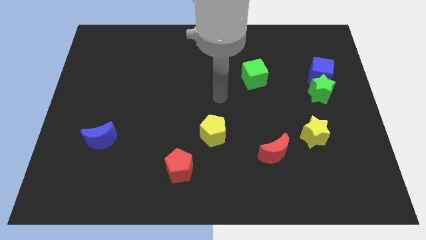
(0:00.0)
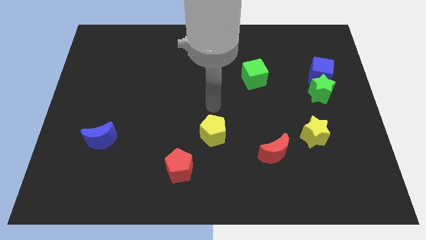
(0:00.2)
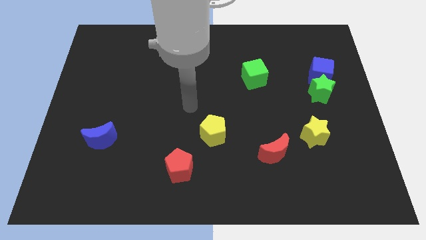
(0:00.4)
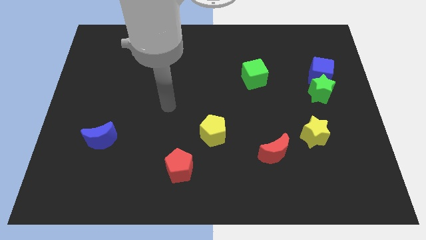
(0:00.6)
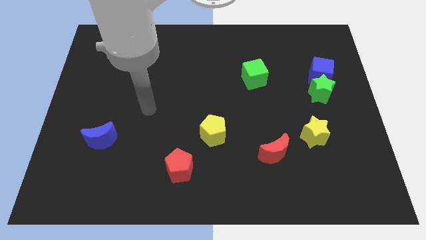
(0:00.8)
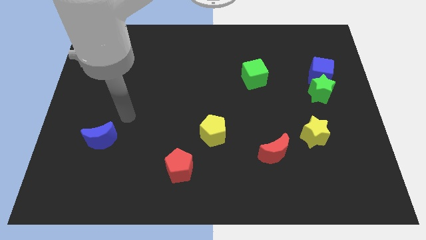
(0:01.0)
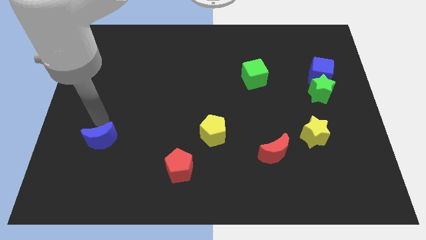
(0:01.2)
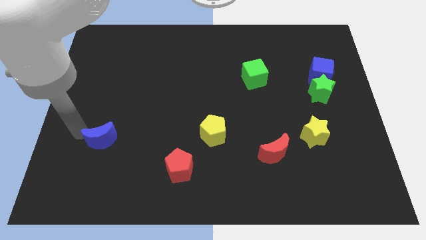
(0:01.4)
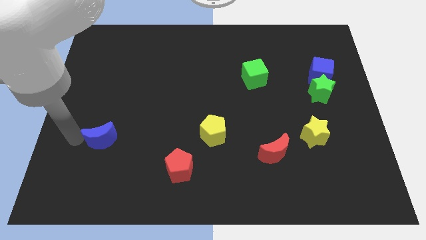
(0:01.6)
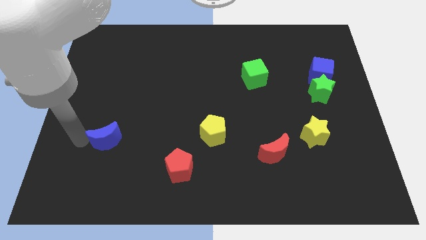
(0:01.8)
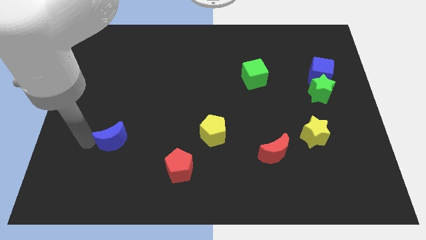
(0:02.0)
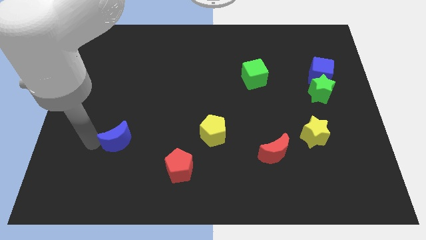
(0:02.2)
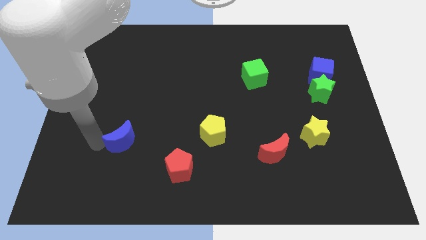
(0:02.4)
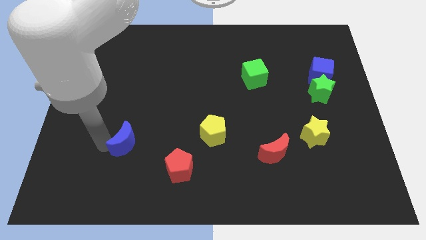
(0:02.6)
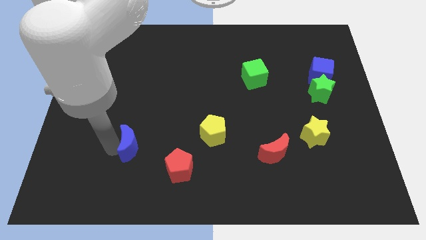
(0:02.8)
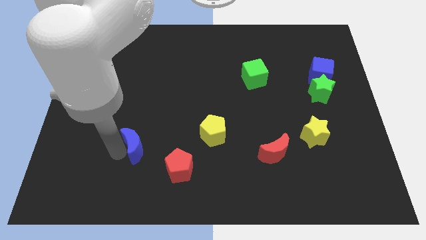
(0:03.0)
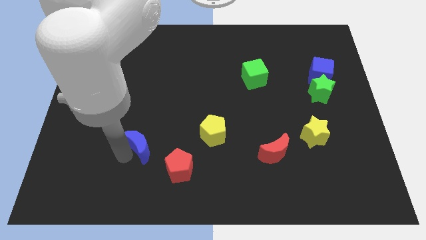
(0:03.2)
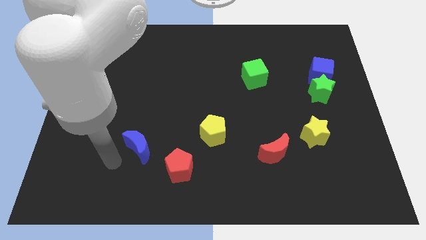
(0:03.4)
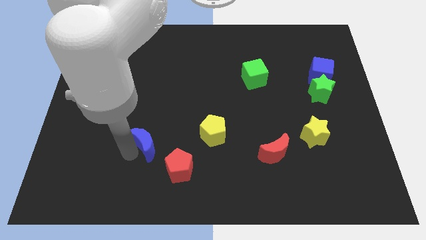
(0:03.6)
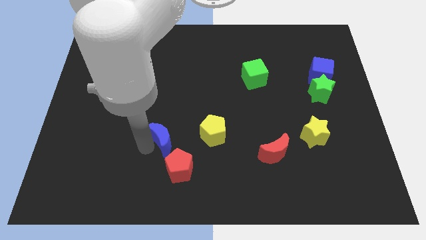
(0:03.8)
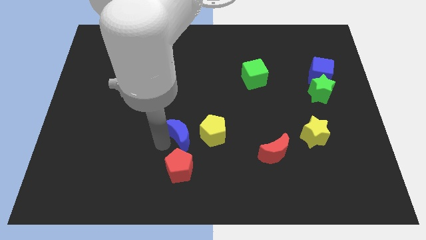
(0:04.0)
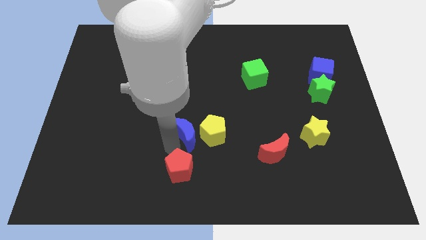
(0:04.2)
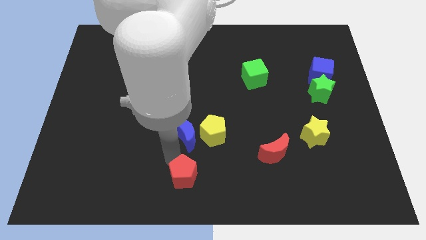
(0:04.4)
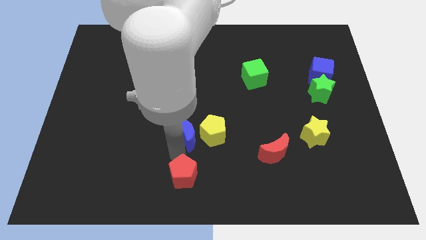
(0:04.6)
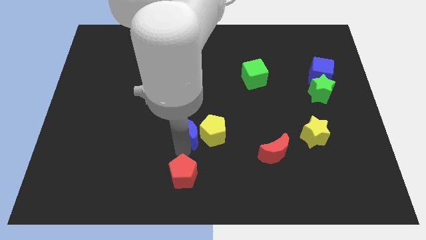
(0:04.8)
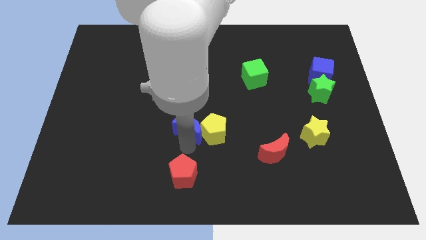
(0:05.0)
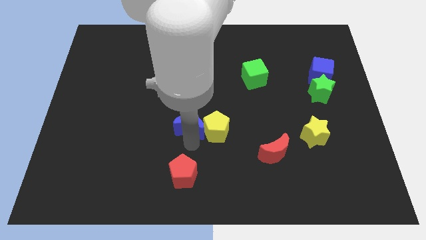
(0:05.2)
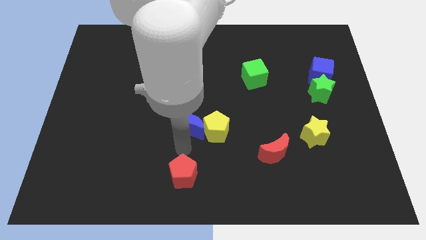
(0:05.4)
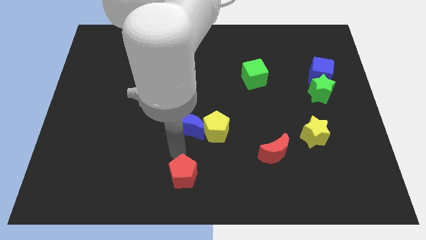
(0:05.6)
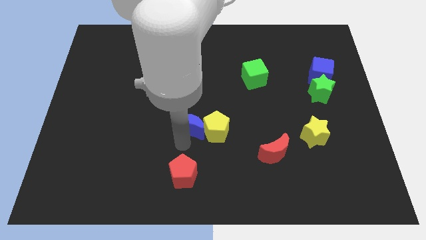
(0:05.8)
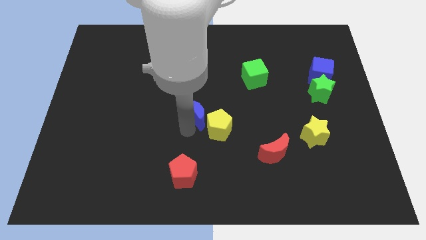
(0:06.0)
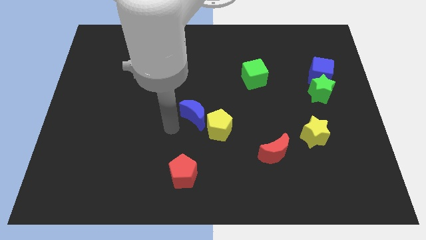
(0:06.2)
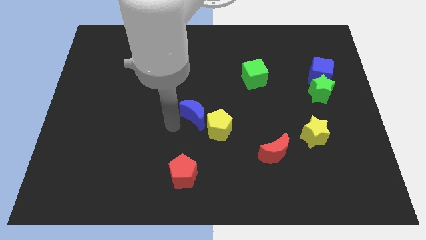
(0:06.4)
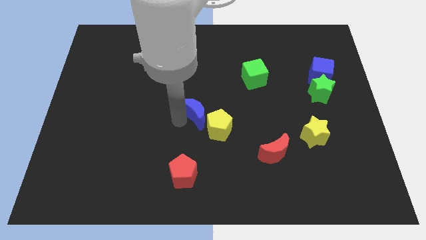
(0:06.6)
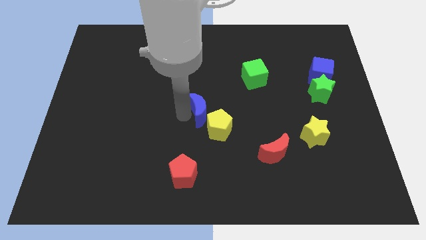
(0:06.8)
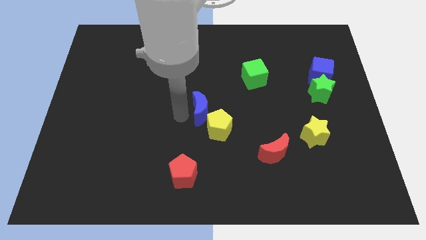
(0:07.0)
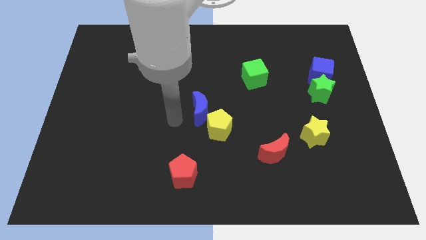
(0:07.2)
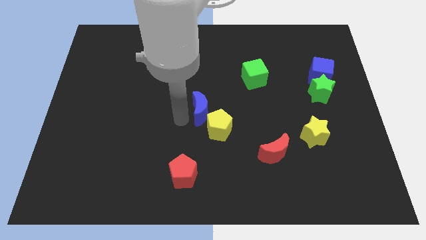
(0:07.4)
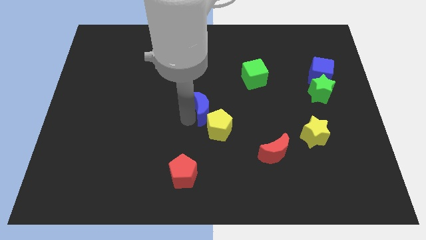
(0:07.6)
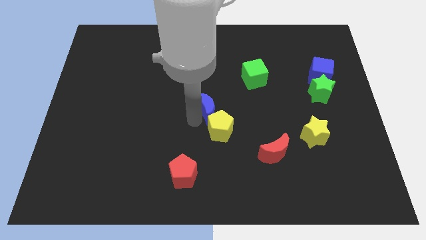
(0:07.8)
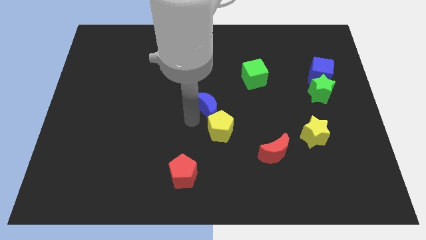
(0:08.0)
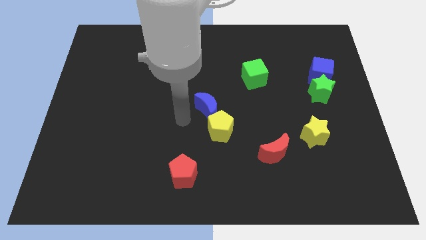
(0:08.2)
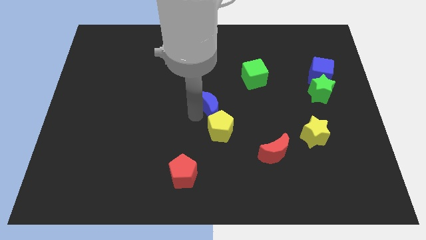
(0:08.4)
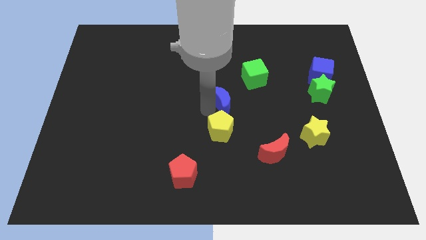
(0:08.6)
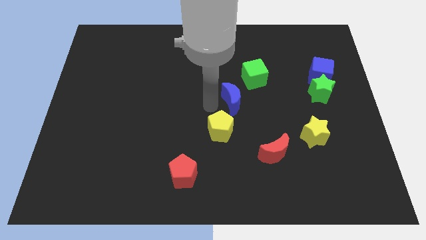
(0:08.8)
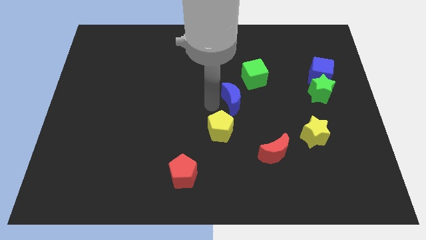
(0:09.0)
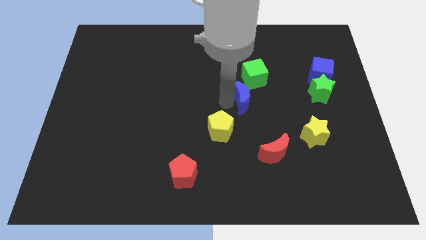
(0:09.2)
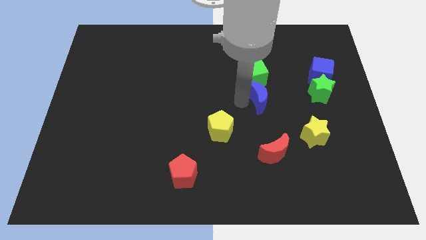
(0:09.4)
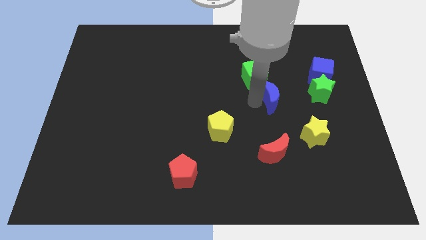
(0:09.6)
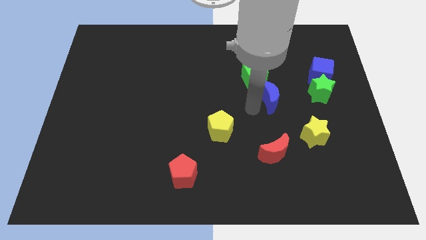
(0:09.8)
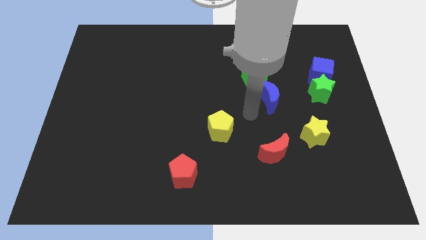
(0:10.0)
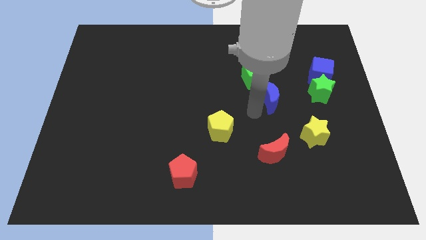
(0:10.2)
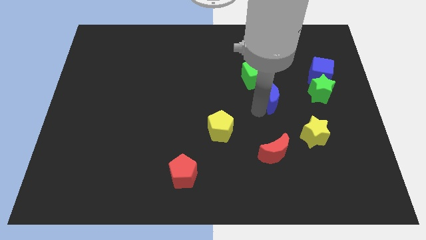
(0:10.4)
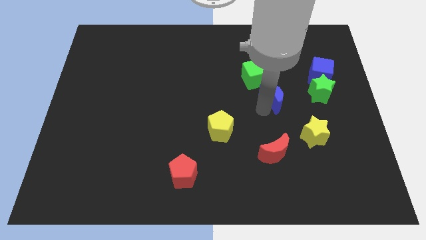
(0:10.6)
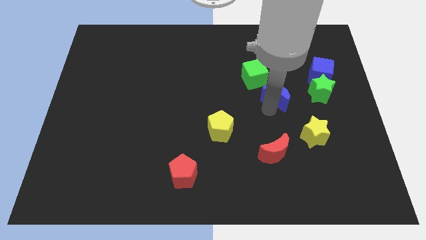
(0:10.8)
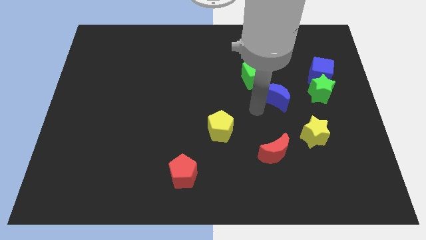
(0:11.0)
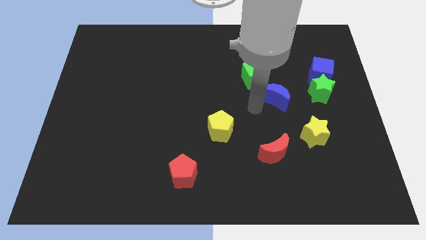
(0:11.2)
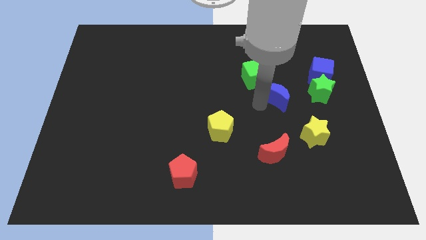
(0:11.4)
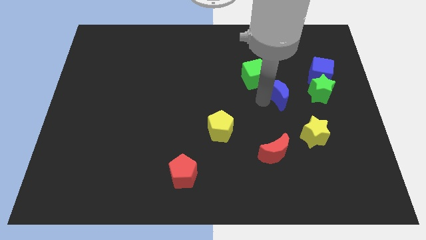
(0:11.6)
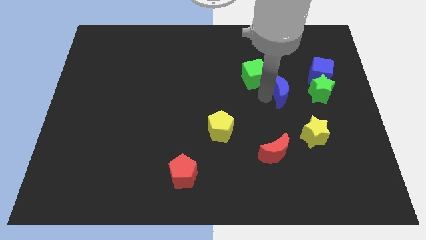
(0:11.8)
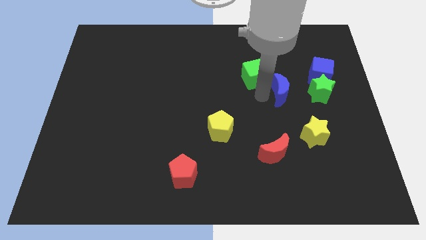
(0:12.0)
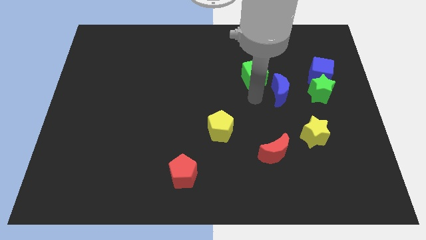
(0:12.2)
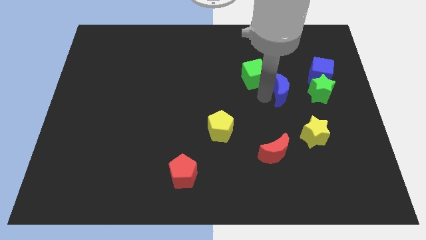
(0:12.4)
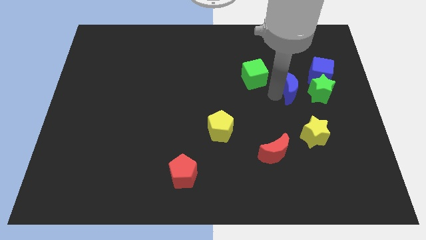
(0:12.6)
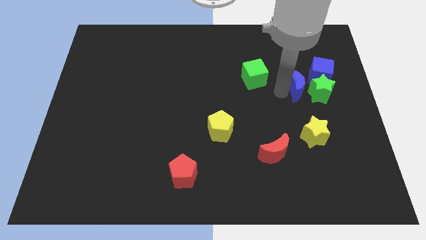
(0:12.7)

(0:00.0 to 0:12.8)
move the blue moon close to the green star

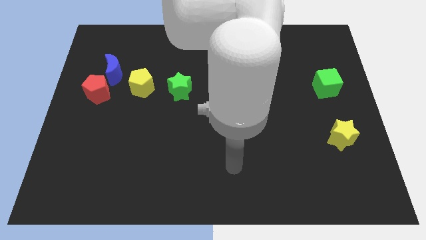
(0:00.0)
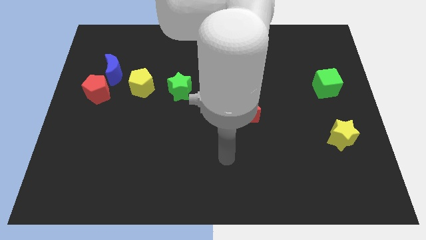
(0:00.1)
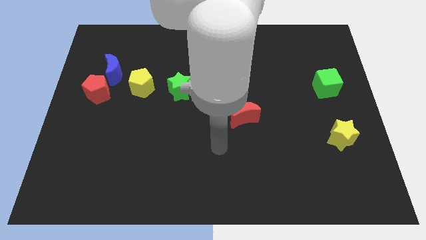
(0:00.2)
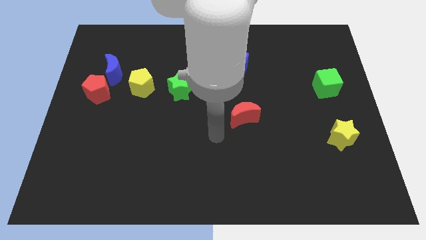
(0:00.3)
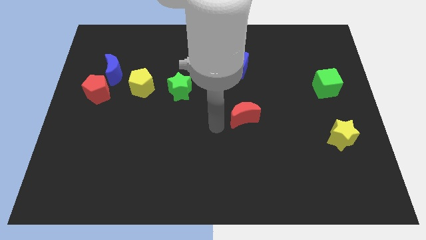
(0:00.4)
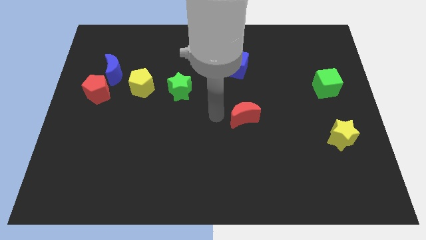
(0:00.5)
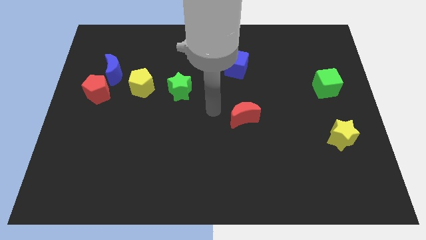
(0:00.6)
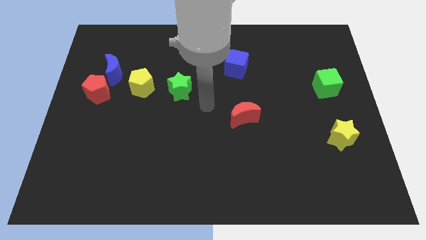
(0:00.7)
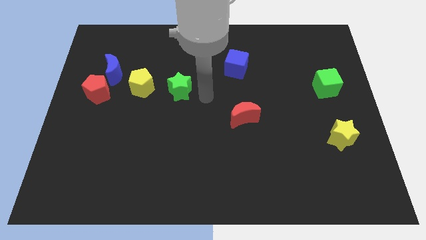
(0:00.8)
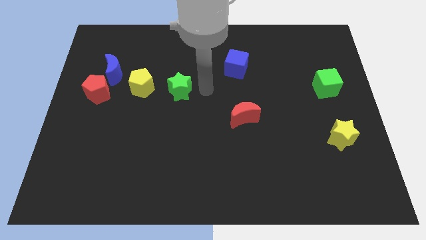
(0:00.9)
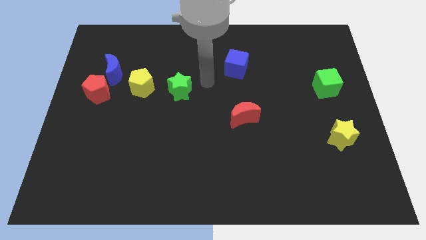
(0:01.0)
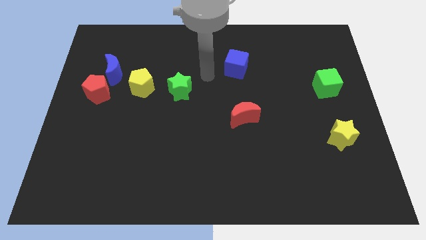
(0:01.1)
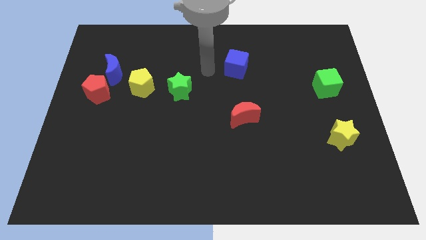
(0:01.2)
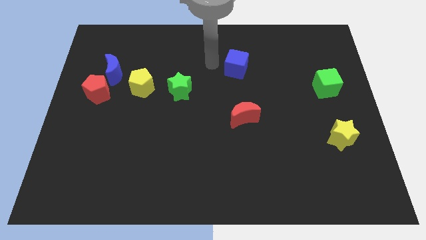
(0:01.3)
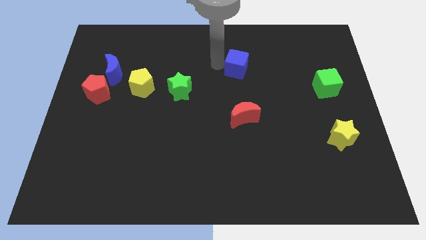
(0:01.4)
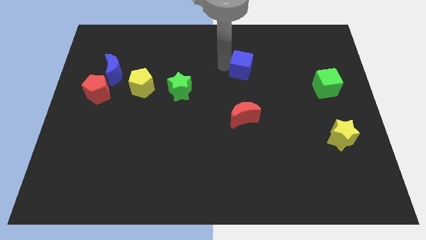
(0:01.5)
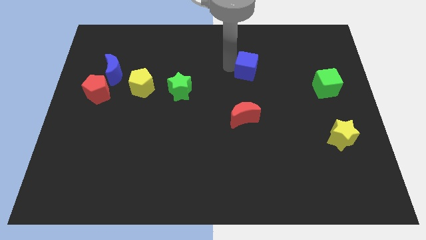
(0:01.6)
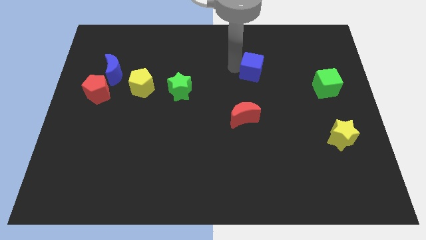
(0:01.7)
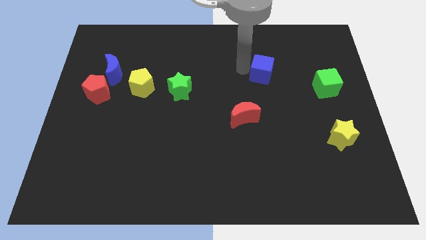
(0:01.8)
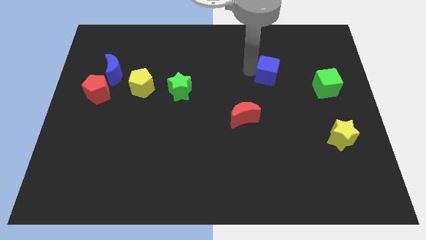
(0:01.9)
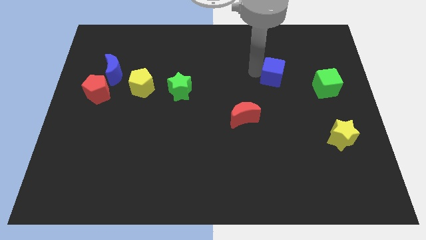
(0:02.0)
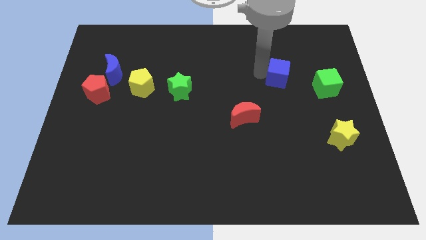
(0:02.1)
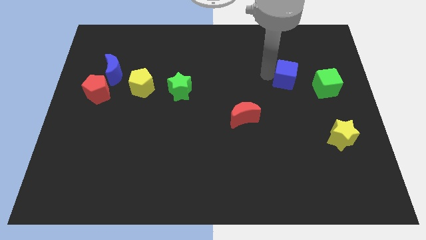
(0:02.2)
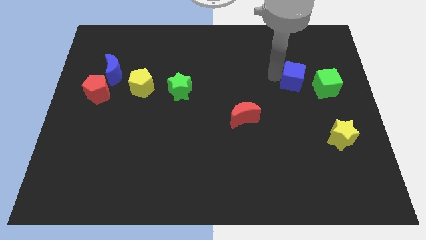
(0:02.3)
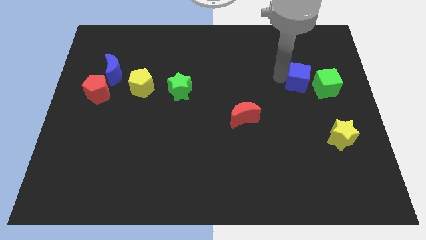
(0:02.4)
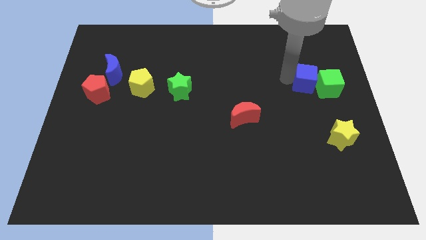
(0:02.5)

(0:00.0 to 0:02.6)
slide the blue cube close to the green cube
